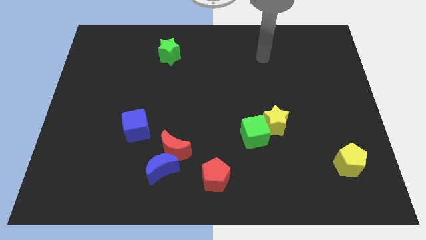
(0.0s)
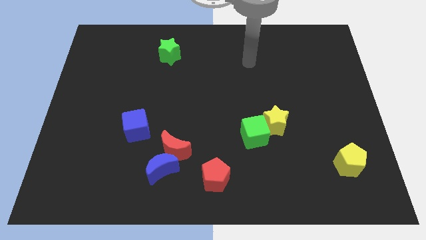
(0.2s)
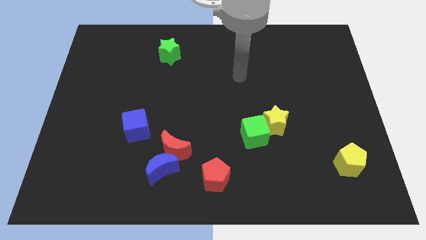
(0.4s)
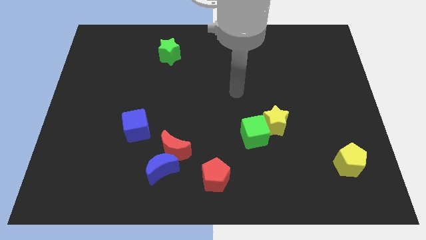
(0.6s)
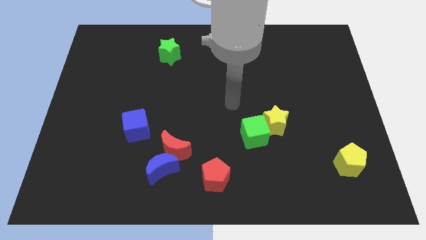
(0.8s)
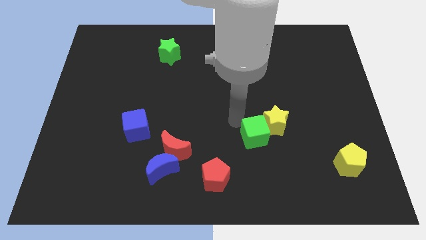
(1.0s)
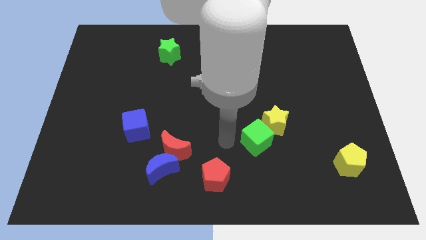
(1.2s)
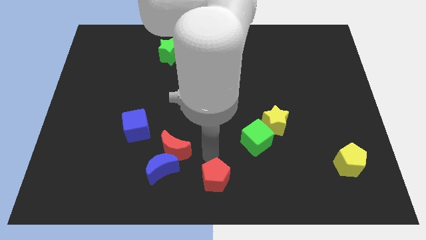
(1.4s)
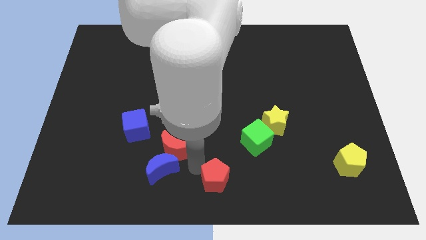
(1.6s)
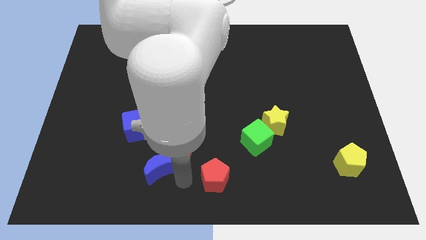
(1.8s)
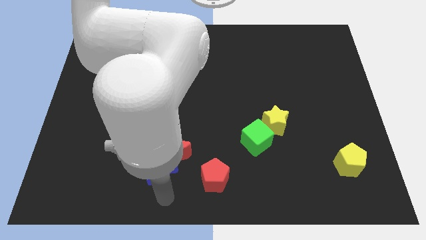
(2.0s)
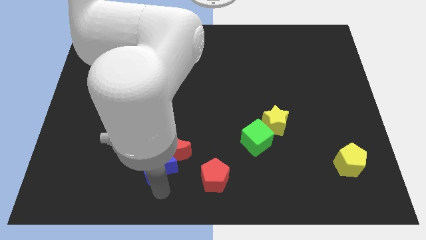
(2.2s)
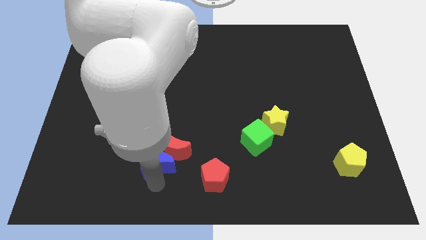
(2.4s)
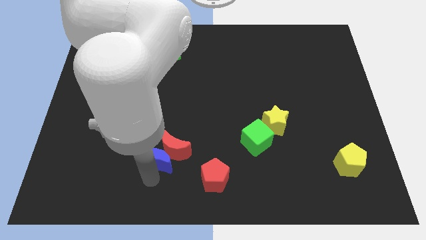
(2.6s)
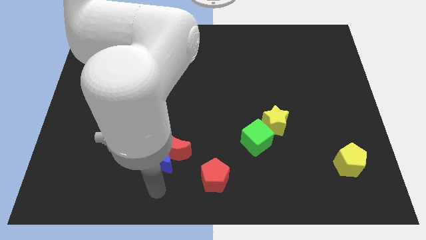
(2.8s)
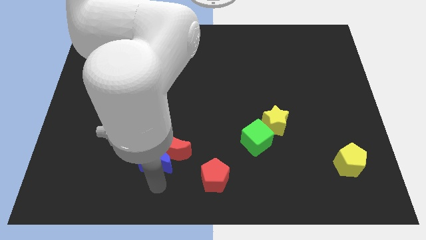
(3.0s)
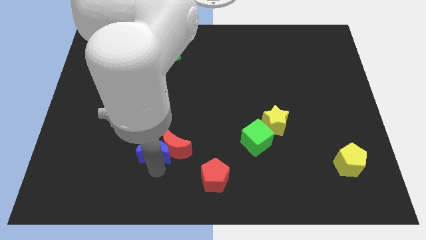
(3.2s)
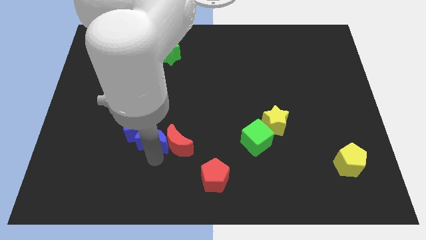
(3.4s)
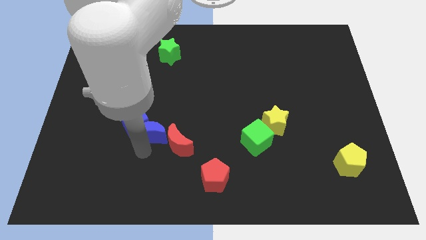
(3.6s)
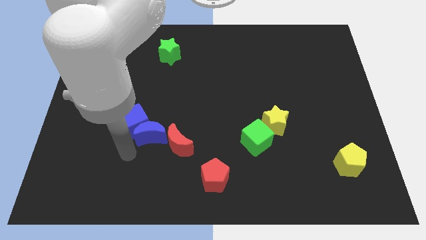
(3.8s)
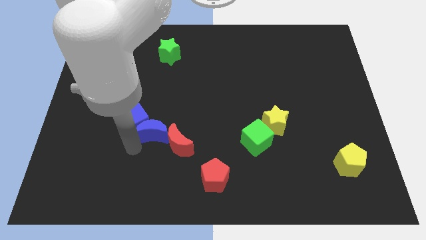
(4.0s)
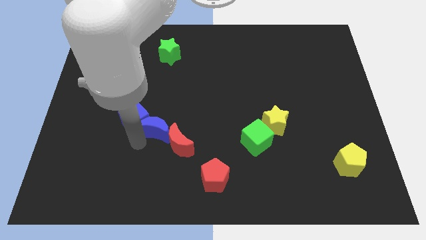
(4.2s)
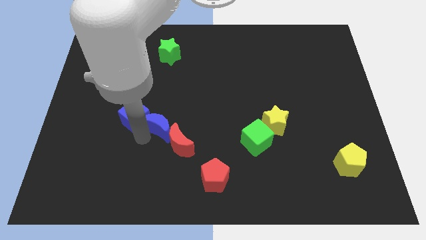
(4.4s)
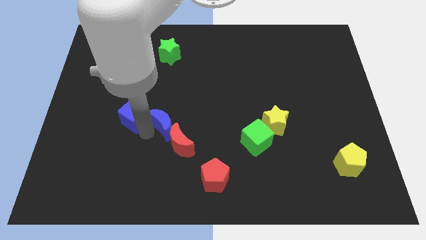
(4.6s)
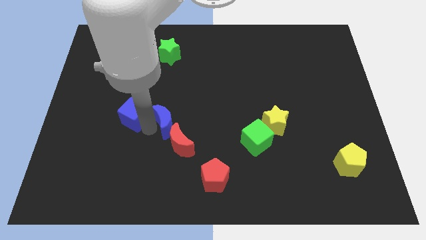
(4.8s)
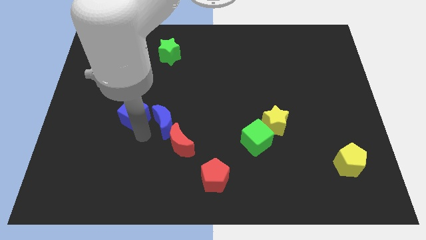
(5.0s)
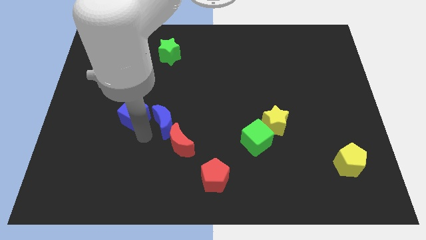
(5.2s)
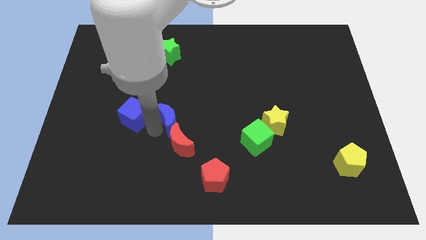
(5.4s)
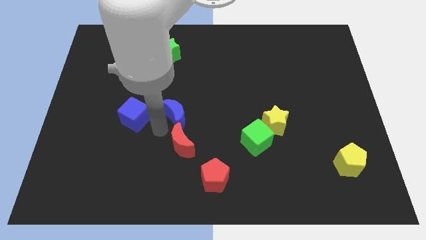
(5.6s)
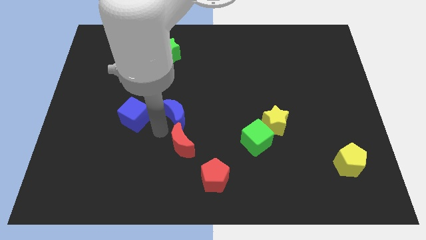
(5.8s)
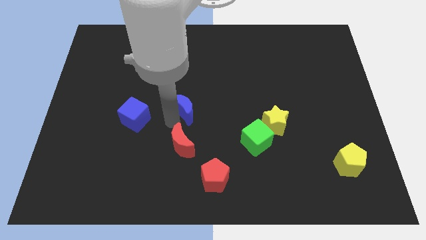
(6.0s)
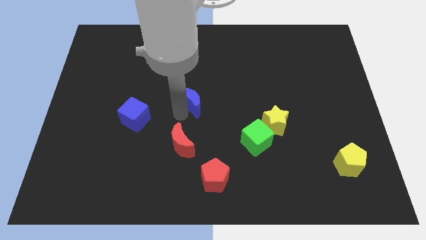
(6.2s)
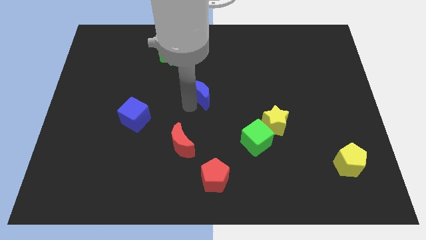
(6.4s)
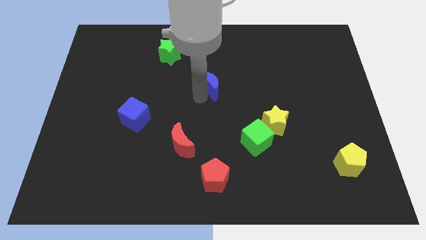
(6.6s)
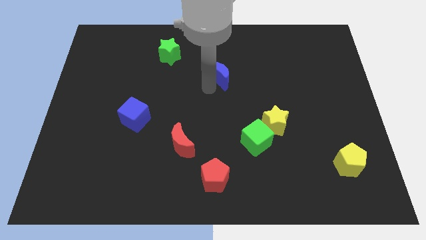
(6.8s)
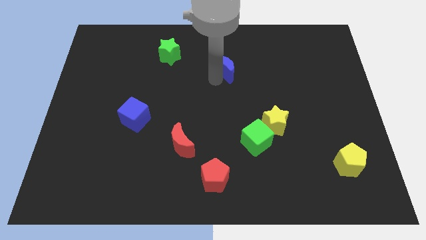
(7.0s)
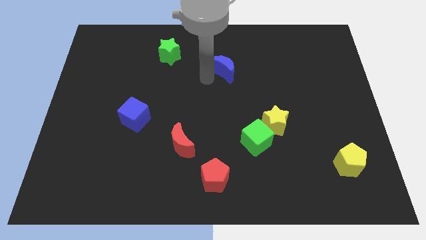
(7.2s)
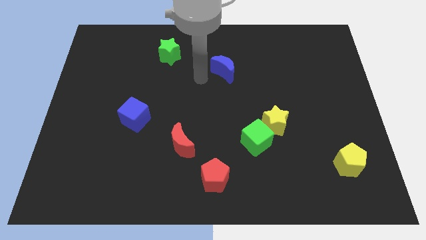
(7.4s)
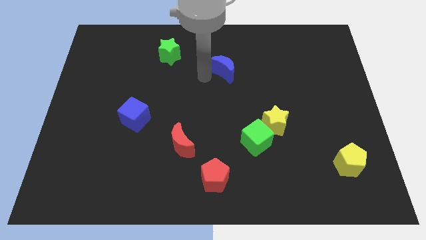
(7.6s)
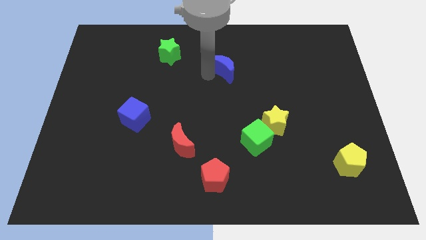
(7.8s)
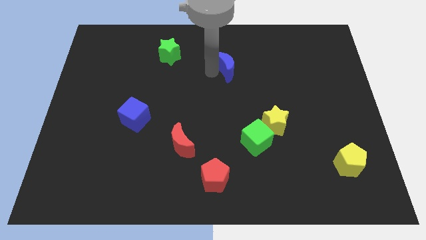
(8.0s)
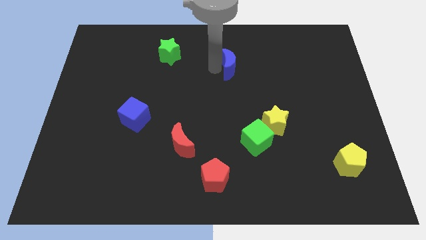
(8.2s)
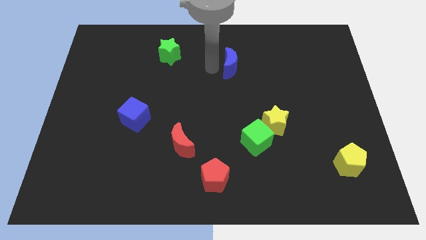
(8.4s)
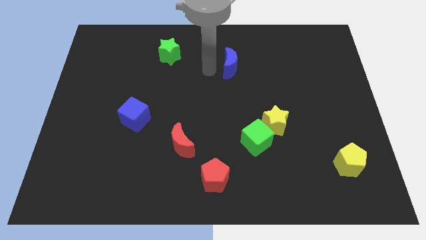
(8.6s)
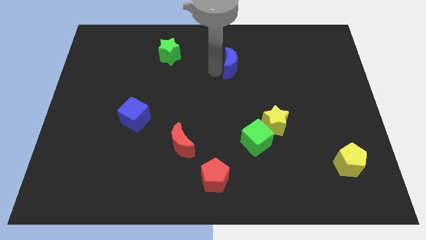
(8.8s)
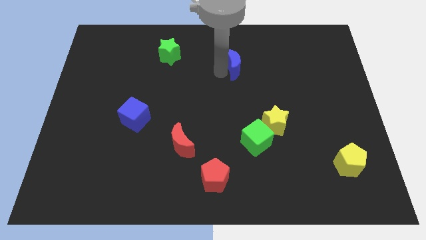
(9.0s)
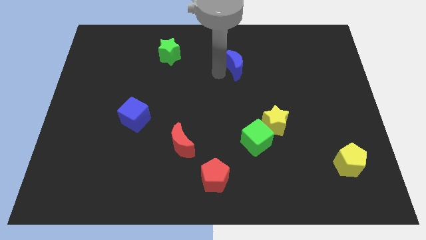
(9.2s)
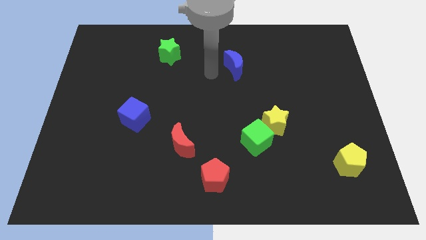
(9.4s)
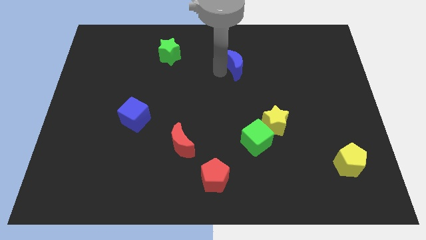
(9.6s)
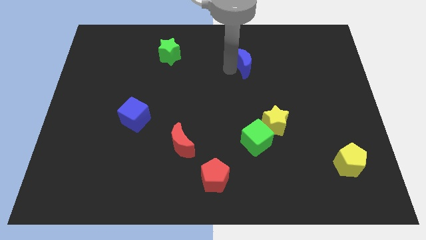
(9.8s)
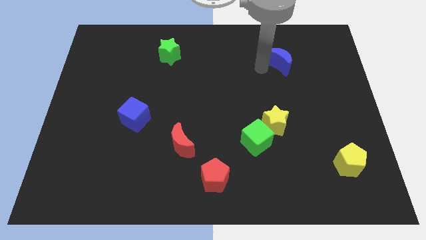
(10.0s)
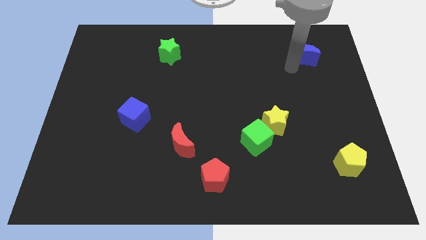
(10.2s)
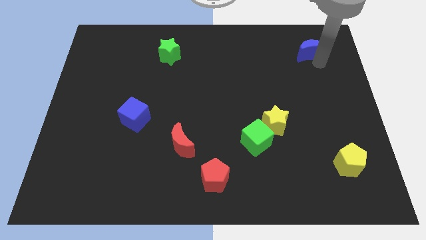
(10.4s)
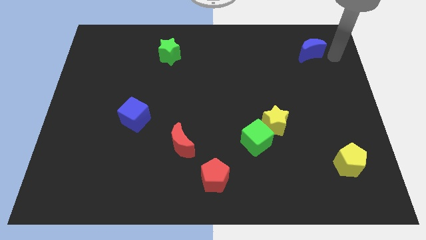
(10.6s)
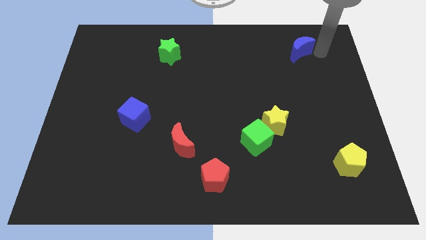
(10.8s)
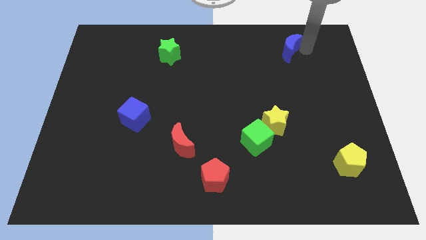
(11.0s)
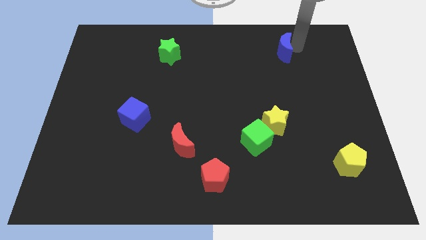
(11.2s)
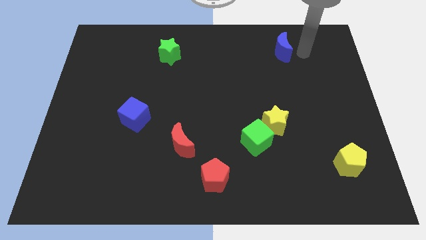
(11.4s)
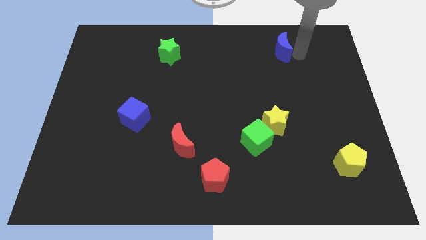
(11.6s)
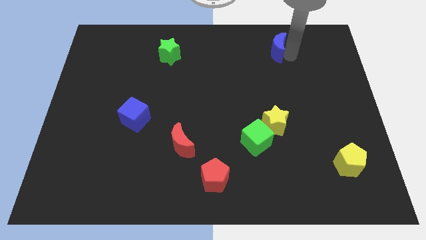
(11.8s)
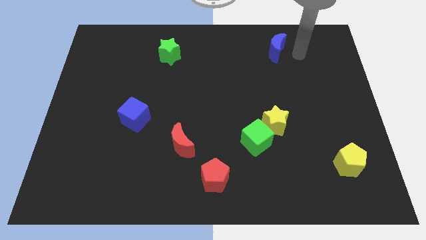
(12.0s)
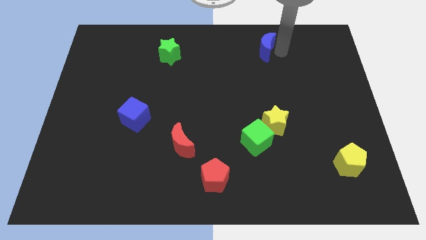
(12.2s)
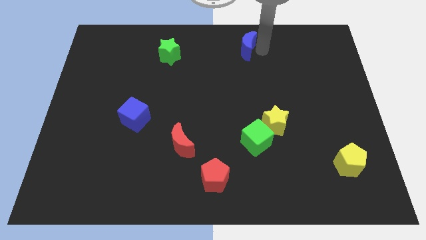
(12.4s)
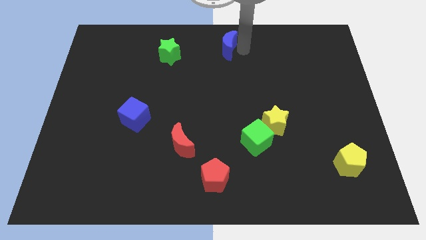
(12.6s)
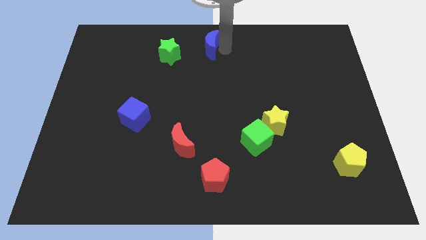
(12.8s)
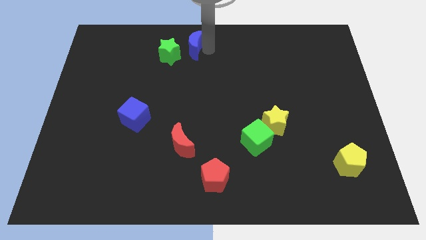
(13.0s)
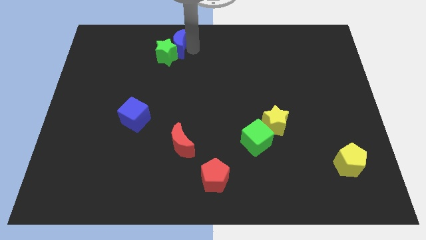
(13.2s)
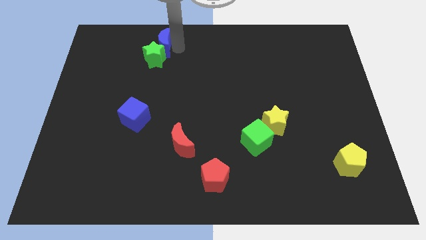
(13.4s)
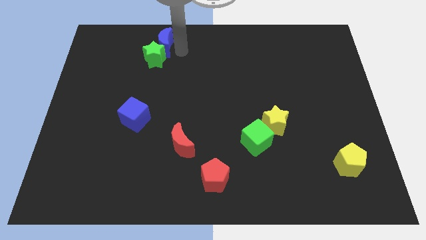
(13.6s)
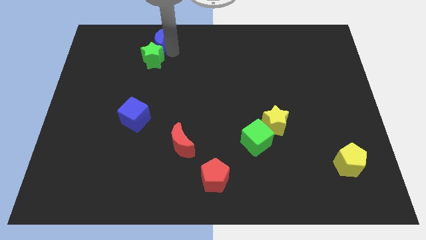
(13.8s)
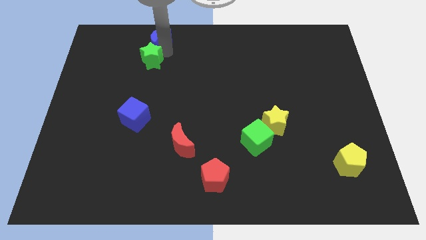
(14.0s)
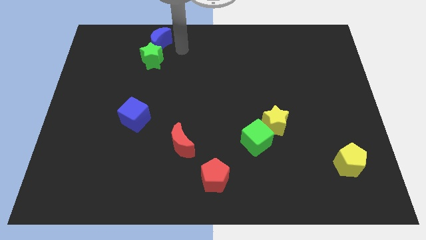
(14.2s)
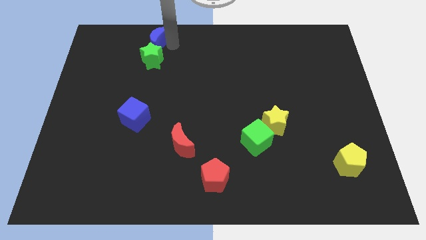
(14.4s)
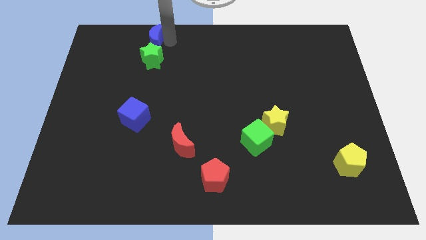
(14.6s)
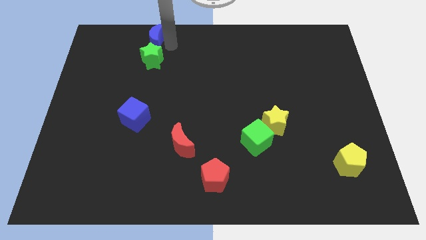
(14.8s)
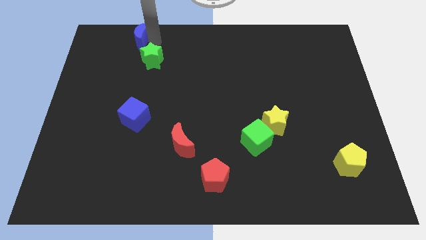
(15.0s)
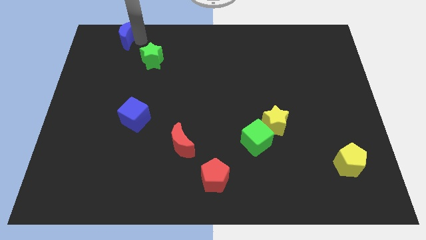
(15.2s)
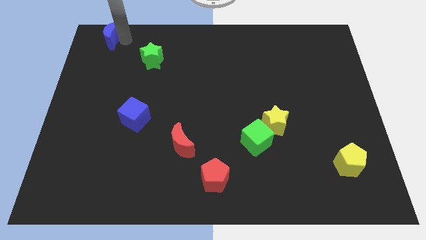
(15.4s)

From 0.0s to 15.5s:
push the blue moon to the top left corner

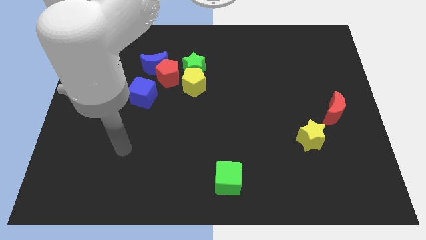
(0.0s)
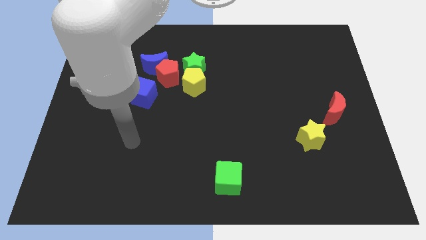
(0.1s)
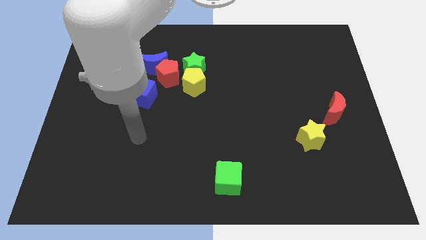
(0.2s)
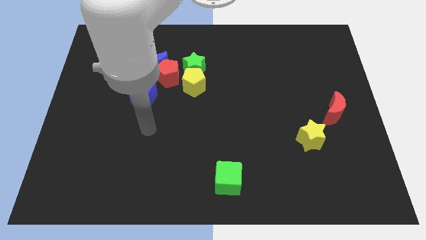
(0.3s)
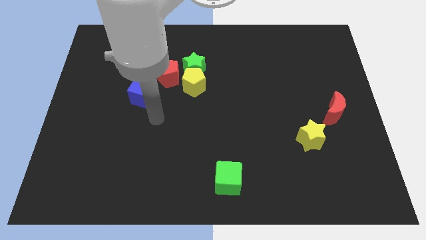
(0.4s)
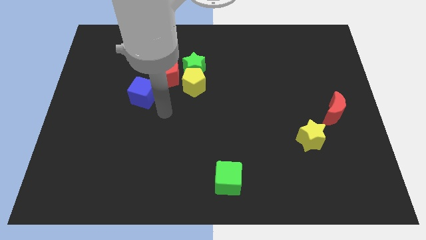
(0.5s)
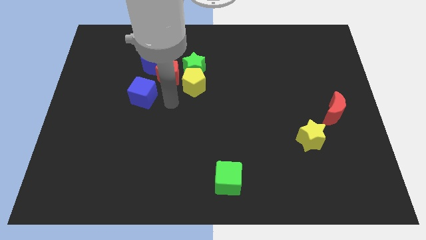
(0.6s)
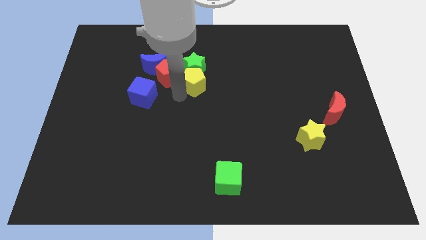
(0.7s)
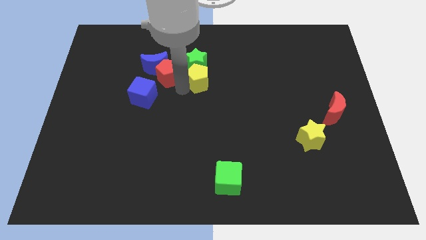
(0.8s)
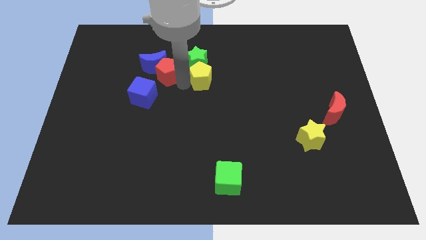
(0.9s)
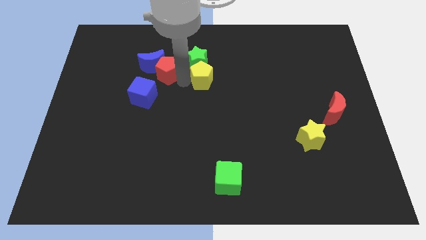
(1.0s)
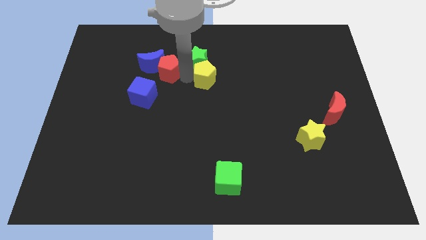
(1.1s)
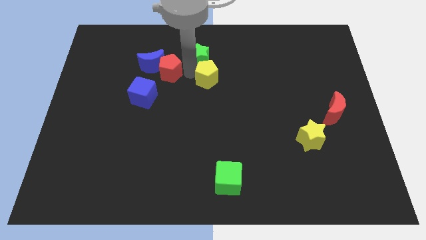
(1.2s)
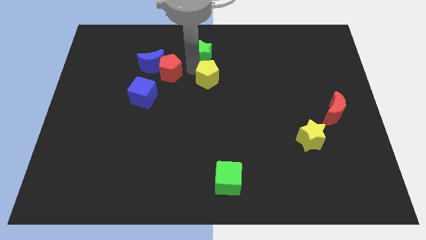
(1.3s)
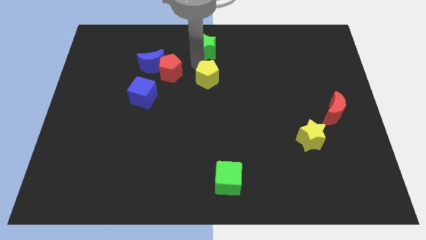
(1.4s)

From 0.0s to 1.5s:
push the green star to the top
